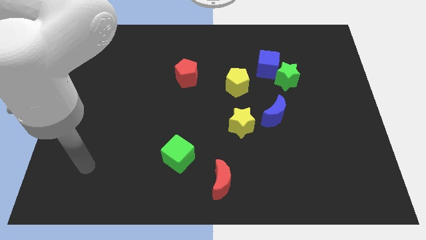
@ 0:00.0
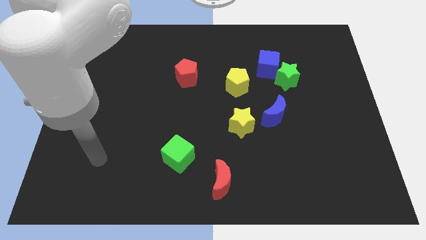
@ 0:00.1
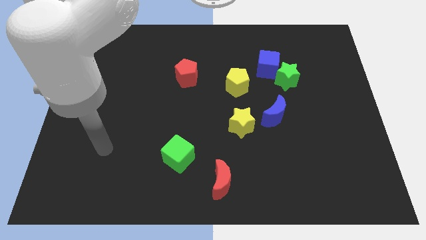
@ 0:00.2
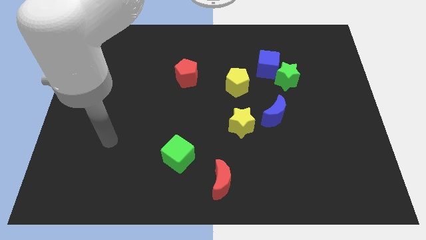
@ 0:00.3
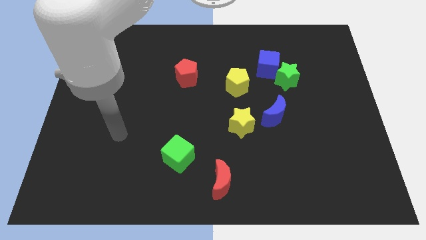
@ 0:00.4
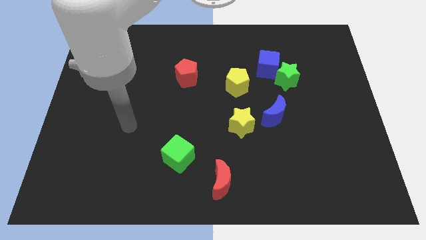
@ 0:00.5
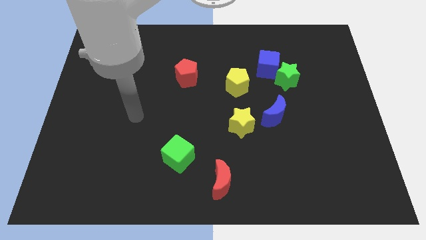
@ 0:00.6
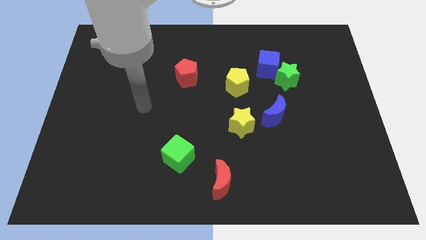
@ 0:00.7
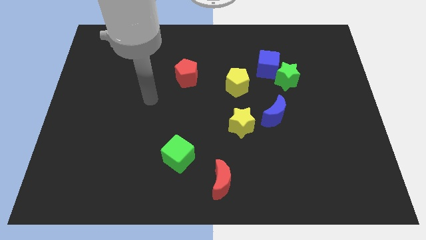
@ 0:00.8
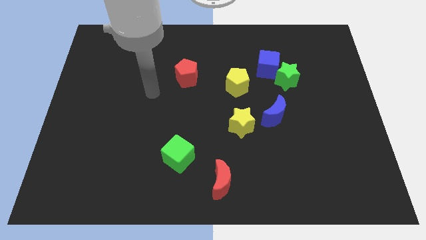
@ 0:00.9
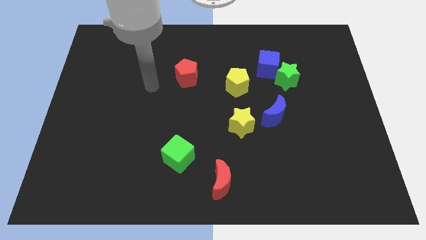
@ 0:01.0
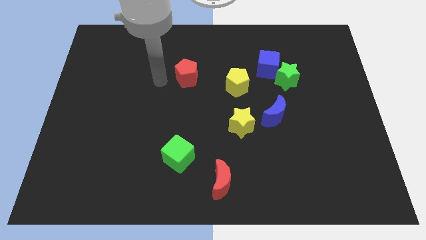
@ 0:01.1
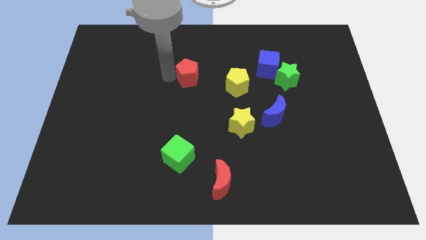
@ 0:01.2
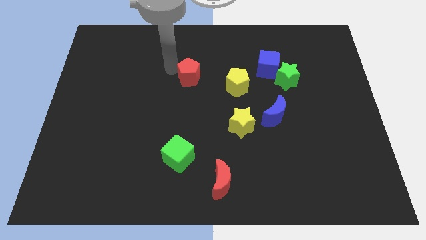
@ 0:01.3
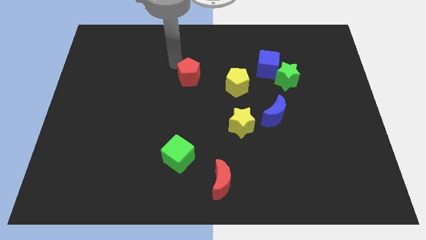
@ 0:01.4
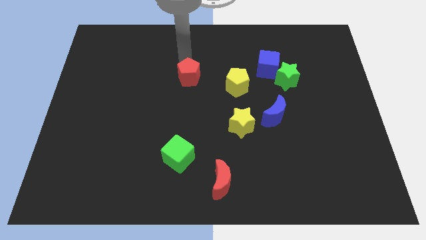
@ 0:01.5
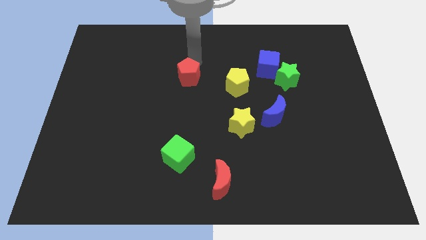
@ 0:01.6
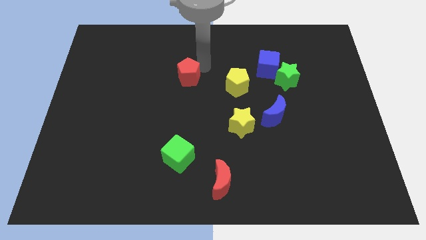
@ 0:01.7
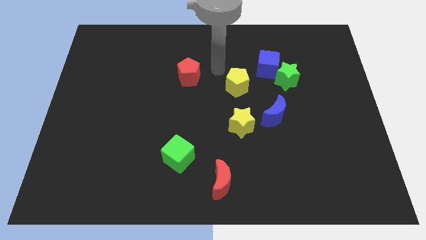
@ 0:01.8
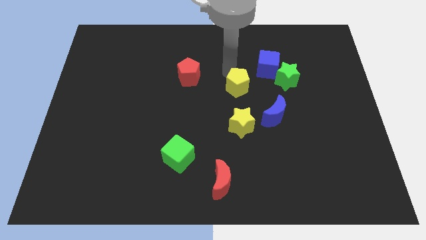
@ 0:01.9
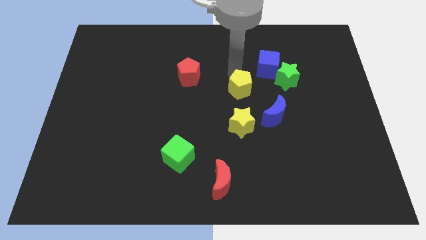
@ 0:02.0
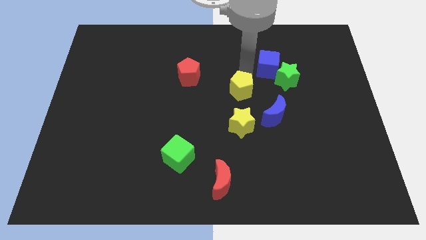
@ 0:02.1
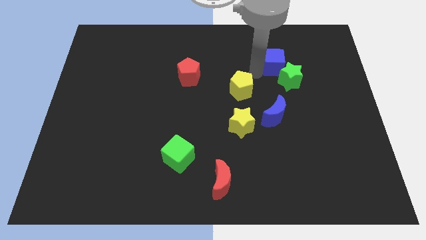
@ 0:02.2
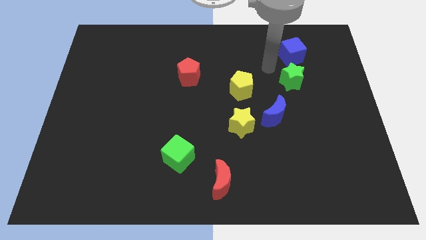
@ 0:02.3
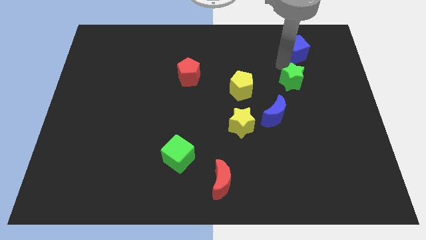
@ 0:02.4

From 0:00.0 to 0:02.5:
pull the green star apart from the blue cube

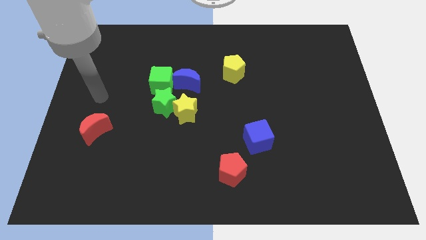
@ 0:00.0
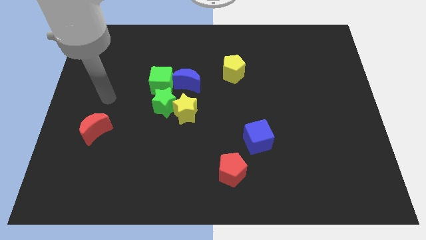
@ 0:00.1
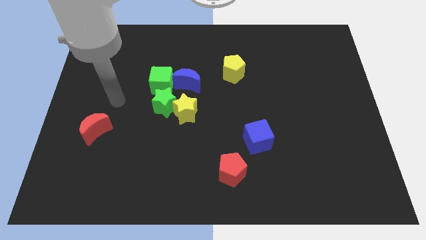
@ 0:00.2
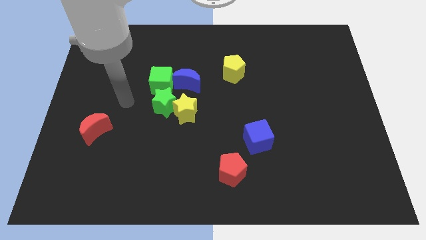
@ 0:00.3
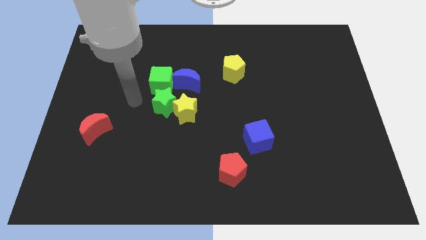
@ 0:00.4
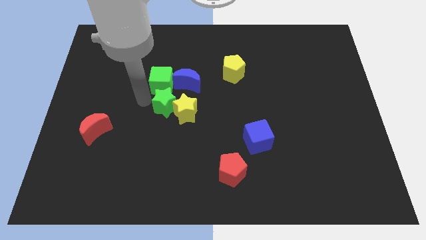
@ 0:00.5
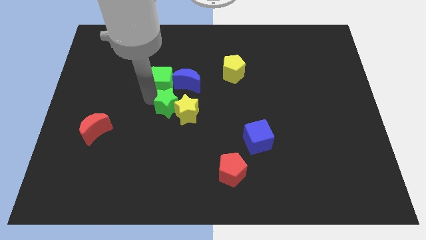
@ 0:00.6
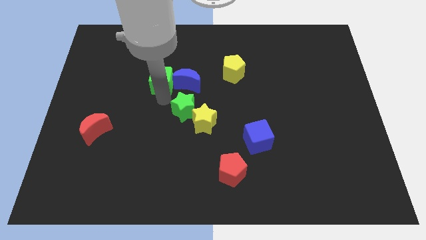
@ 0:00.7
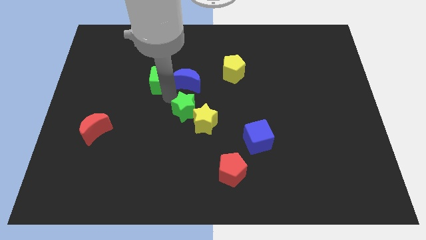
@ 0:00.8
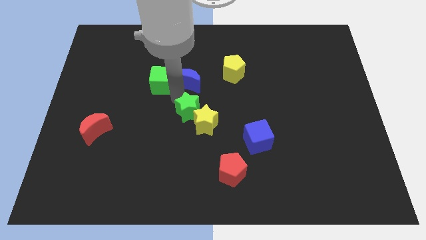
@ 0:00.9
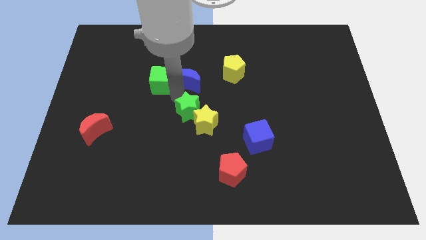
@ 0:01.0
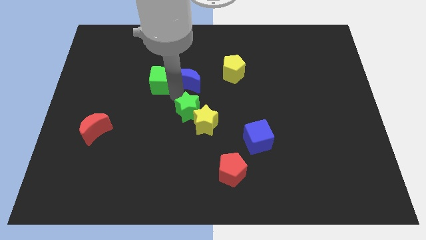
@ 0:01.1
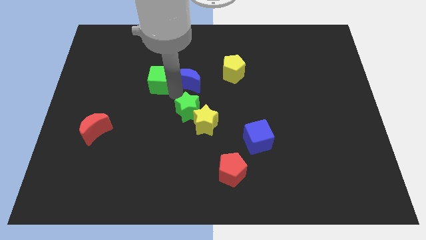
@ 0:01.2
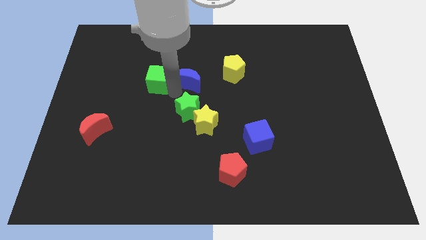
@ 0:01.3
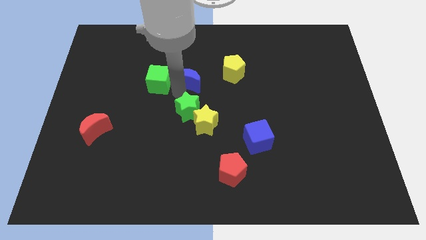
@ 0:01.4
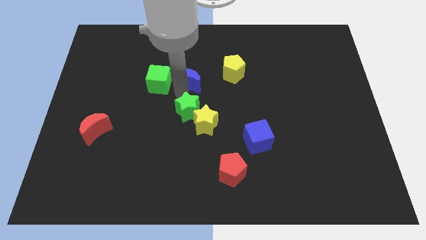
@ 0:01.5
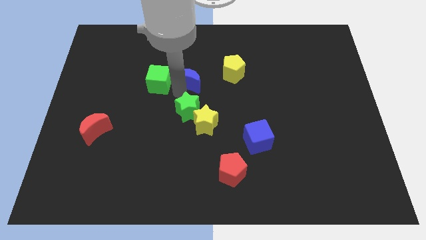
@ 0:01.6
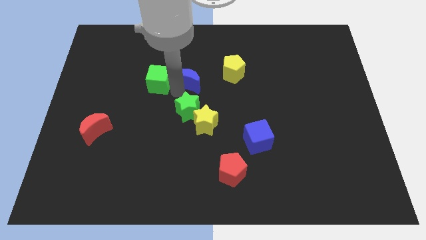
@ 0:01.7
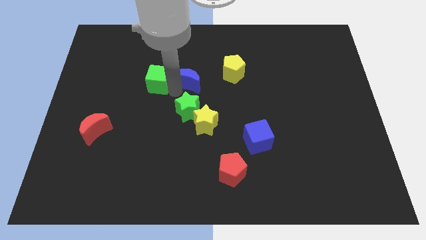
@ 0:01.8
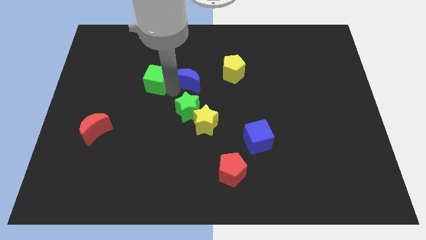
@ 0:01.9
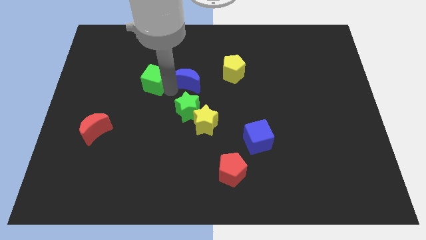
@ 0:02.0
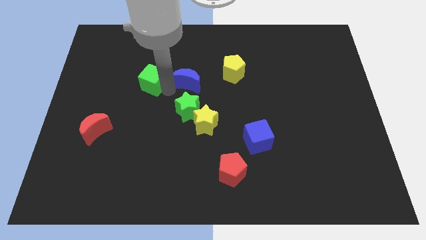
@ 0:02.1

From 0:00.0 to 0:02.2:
separate the green cube from the blue moon and green star

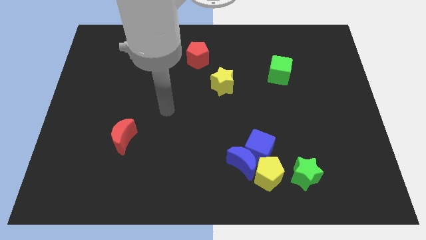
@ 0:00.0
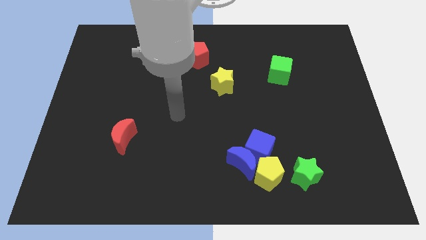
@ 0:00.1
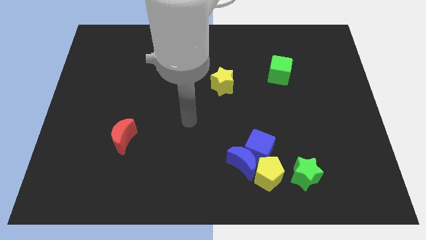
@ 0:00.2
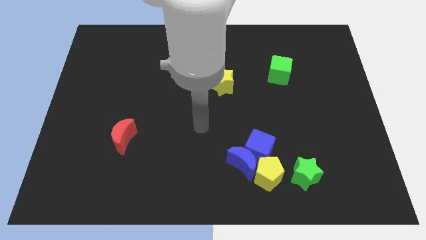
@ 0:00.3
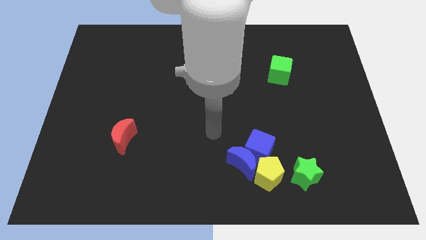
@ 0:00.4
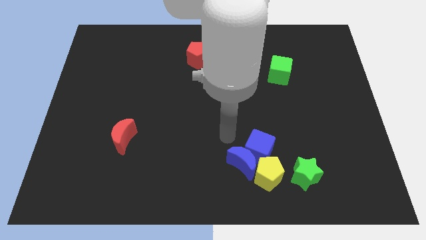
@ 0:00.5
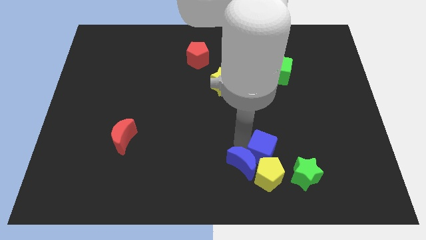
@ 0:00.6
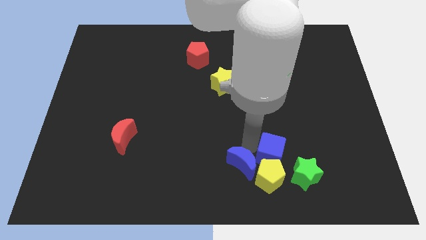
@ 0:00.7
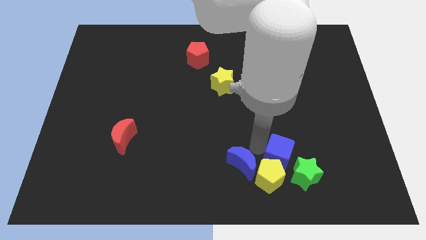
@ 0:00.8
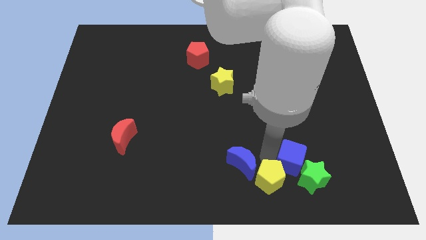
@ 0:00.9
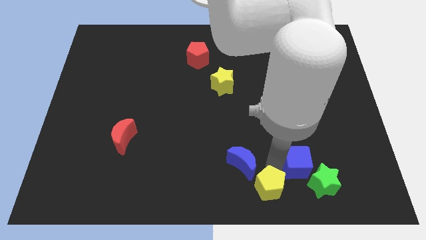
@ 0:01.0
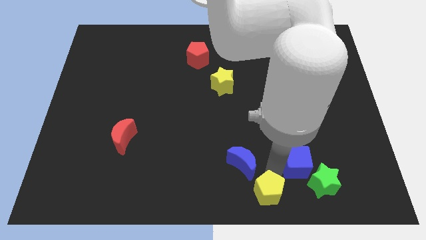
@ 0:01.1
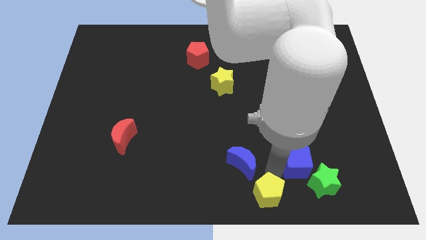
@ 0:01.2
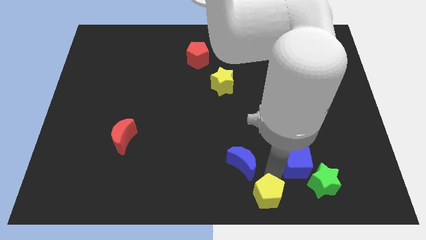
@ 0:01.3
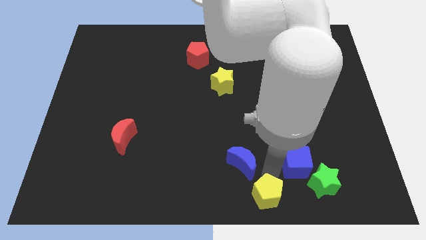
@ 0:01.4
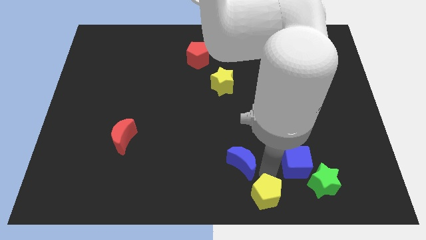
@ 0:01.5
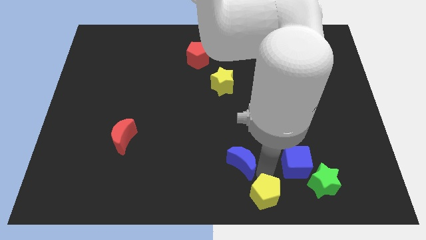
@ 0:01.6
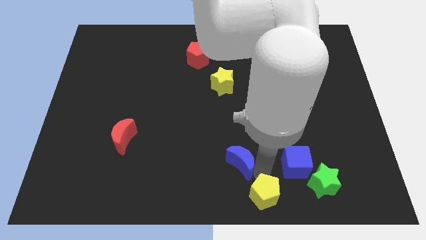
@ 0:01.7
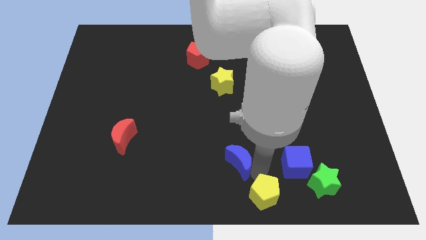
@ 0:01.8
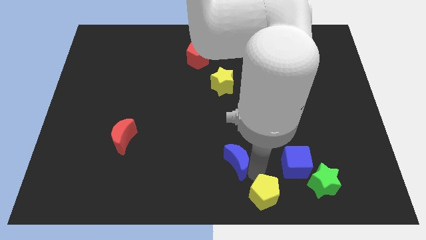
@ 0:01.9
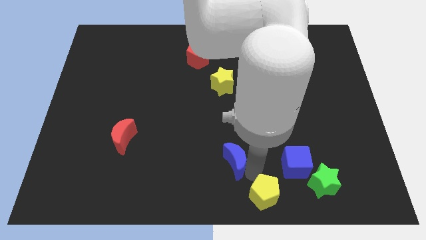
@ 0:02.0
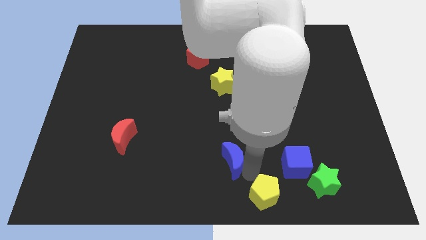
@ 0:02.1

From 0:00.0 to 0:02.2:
pull the blue moon apart from the blue cube and yellow pentagon

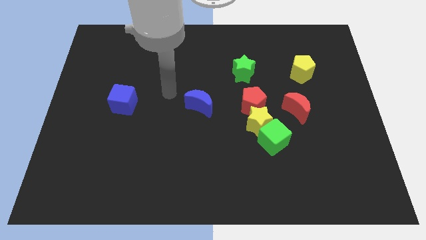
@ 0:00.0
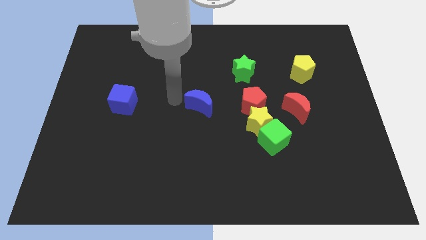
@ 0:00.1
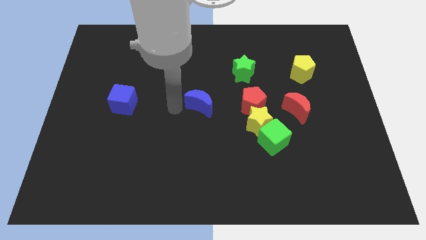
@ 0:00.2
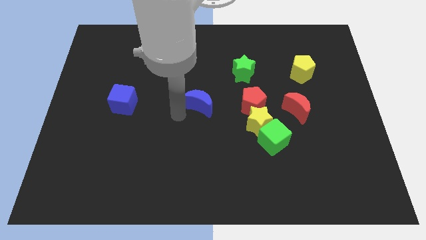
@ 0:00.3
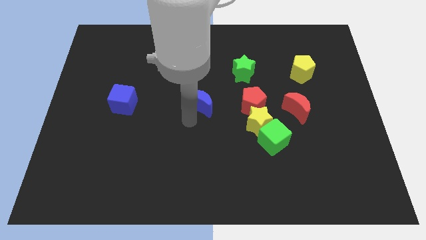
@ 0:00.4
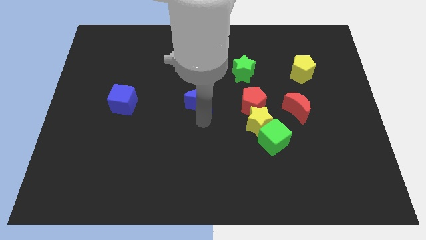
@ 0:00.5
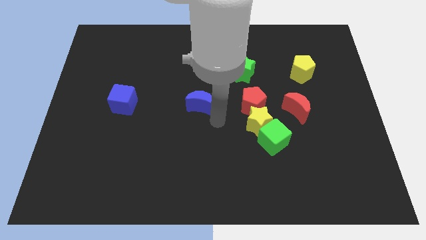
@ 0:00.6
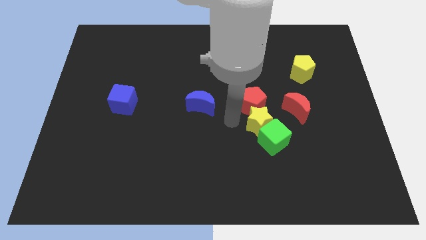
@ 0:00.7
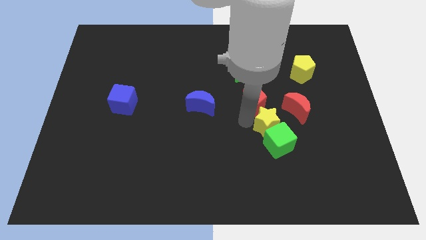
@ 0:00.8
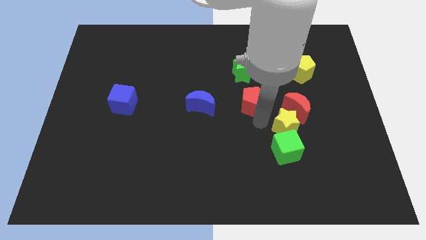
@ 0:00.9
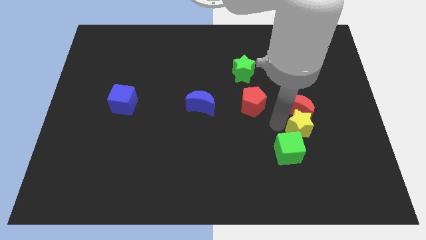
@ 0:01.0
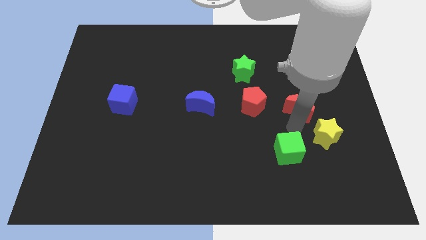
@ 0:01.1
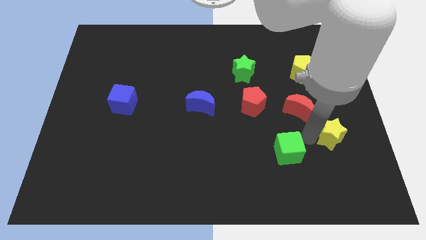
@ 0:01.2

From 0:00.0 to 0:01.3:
move the green cube away from the yellow star

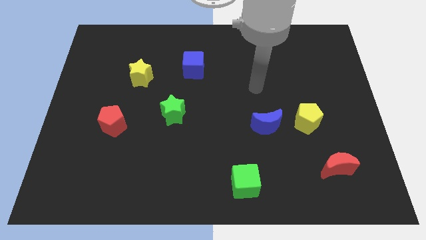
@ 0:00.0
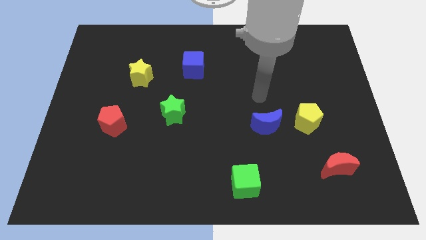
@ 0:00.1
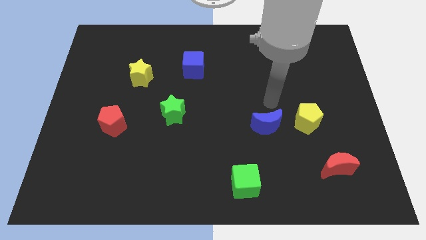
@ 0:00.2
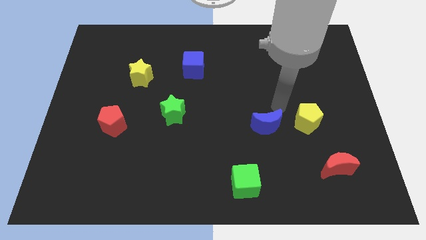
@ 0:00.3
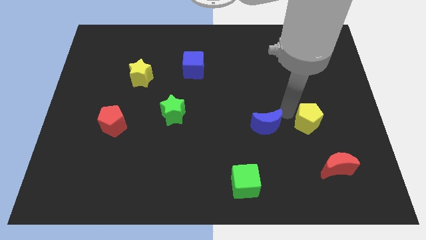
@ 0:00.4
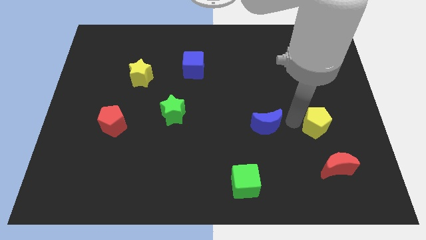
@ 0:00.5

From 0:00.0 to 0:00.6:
separate the blue moon from the yellow pentagon

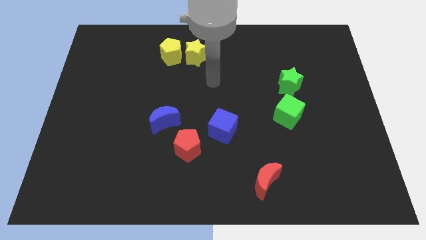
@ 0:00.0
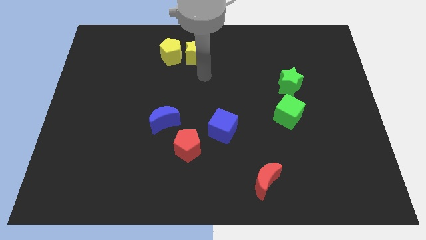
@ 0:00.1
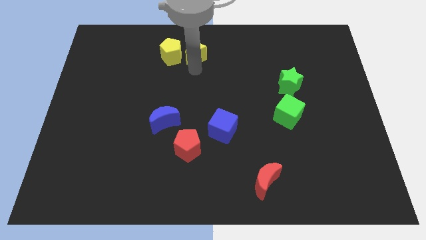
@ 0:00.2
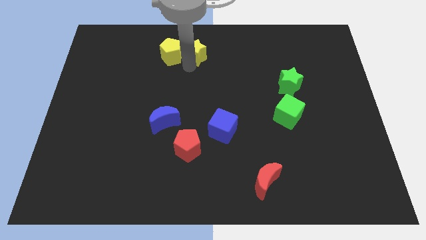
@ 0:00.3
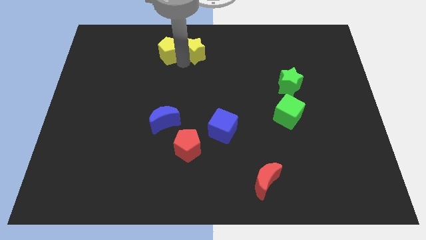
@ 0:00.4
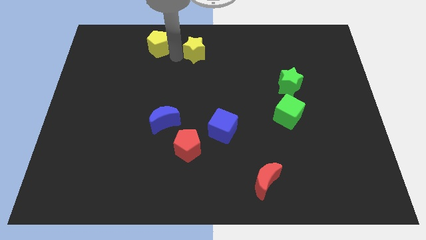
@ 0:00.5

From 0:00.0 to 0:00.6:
move the yellow star away from the yellow pentagon
